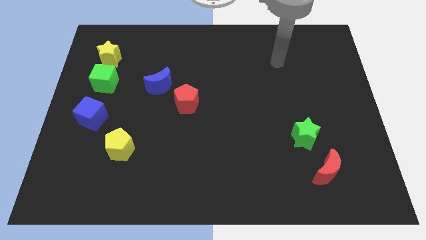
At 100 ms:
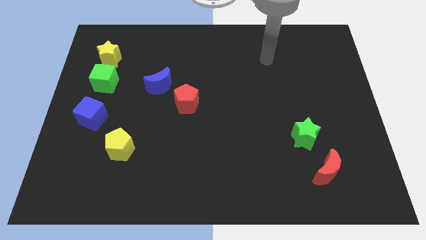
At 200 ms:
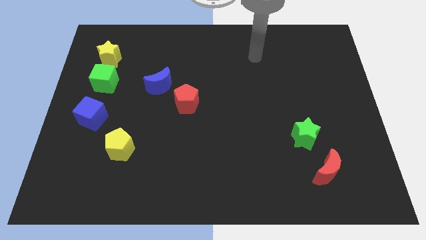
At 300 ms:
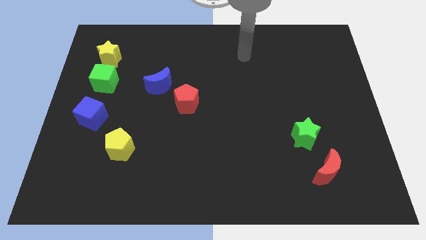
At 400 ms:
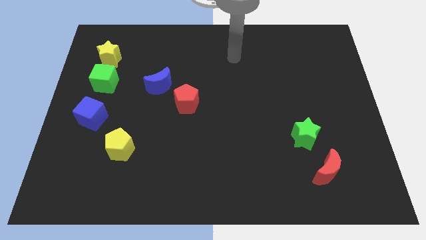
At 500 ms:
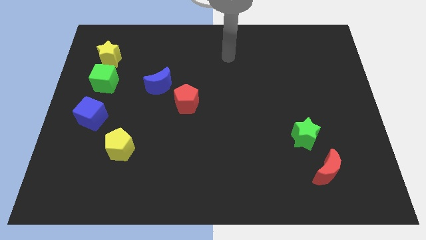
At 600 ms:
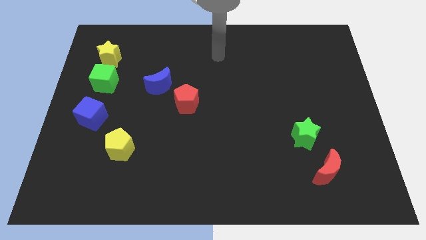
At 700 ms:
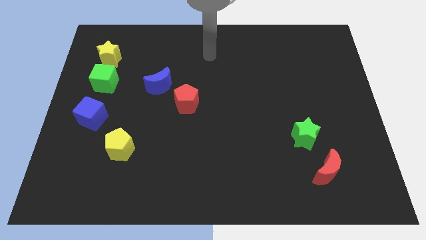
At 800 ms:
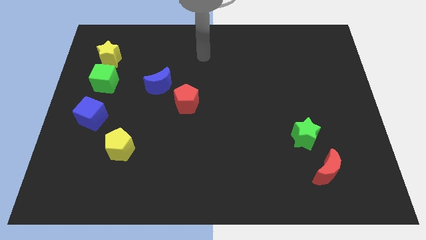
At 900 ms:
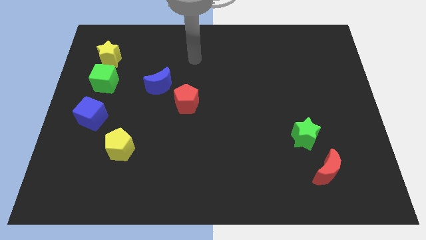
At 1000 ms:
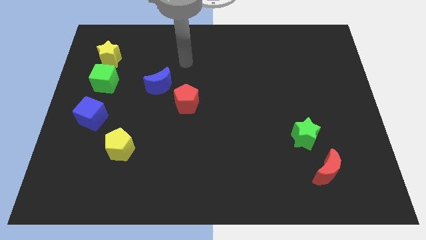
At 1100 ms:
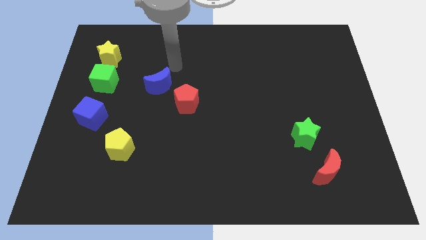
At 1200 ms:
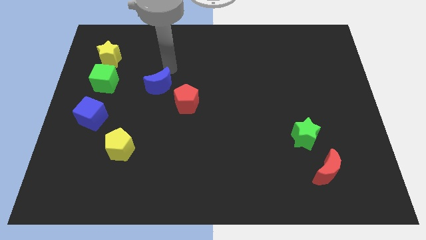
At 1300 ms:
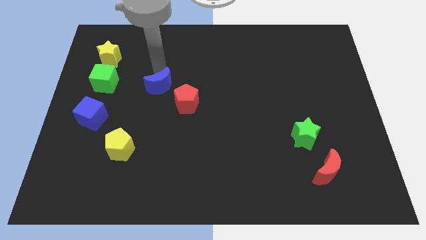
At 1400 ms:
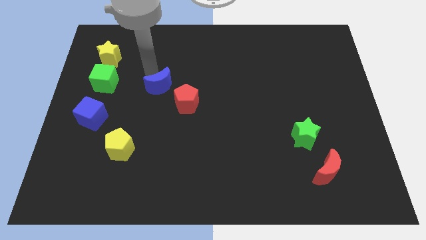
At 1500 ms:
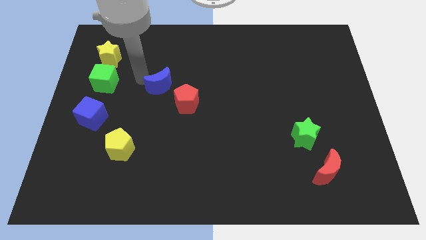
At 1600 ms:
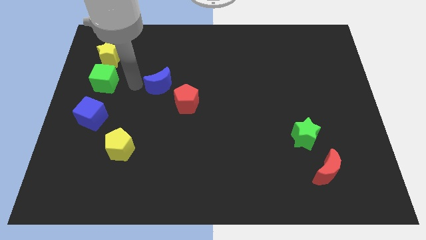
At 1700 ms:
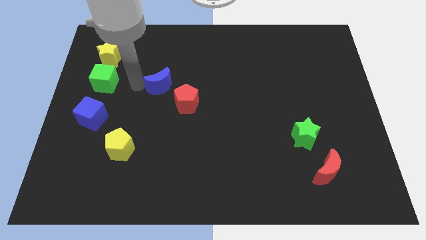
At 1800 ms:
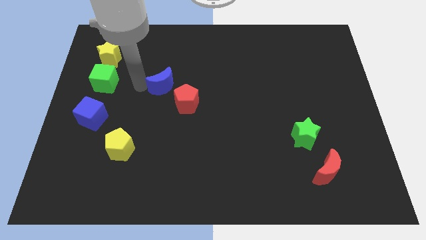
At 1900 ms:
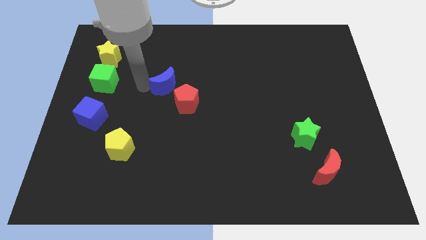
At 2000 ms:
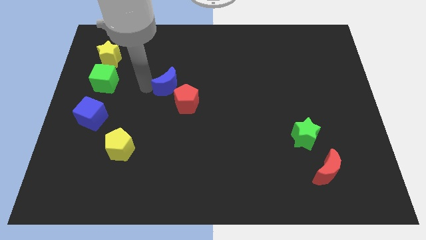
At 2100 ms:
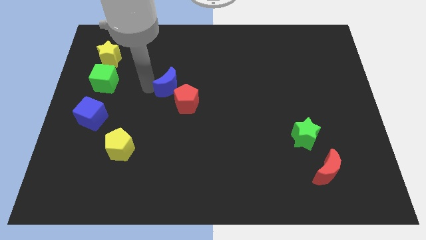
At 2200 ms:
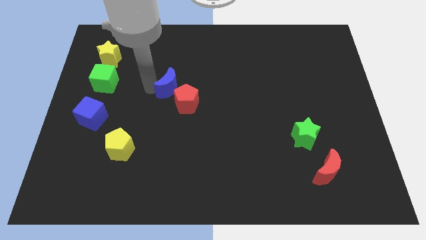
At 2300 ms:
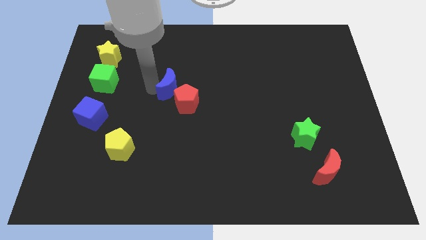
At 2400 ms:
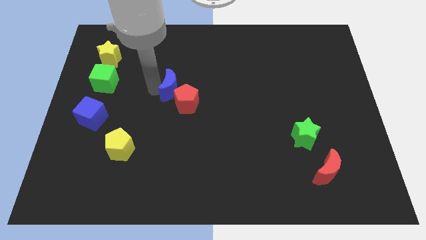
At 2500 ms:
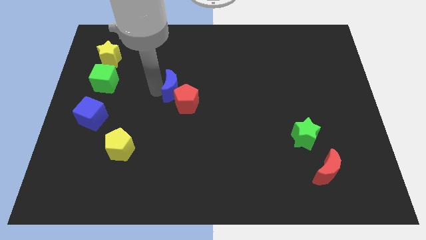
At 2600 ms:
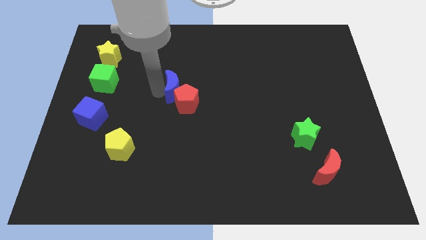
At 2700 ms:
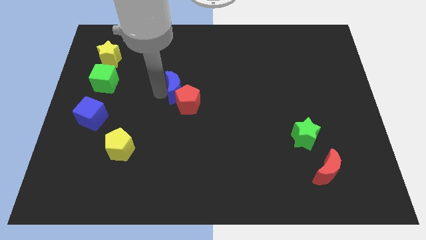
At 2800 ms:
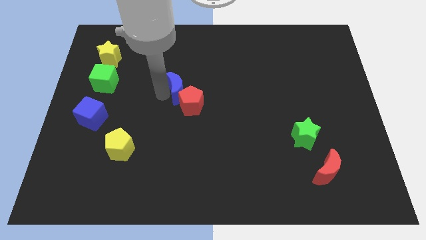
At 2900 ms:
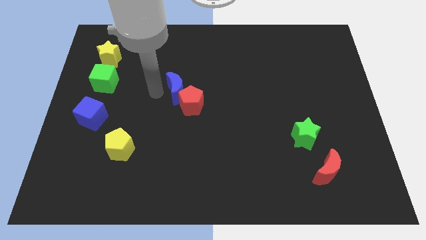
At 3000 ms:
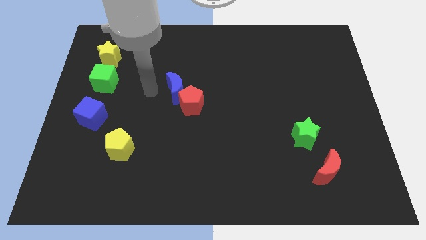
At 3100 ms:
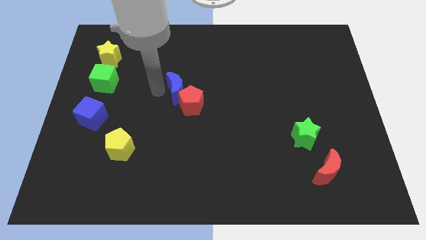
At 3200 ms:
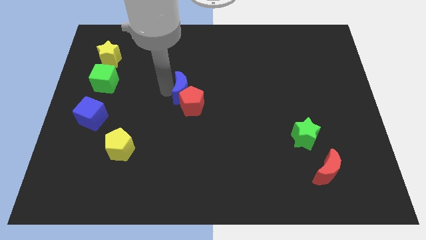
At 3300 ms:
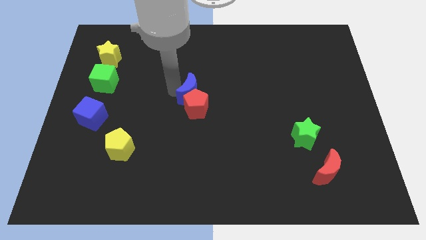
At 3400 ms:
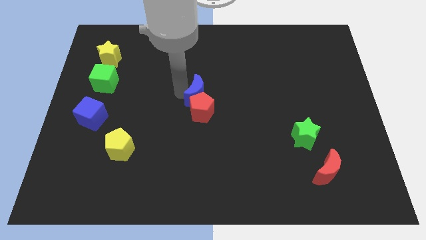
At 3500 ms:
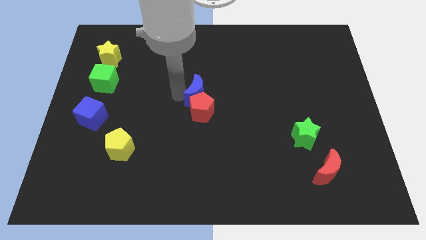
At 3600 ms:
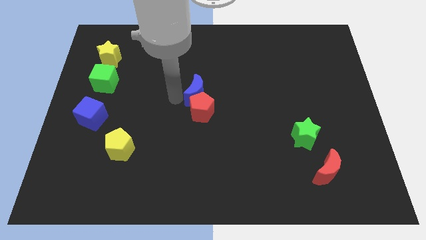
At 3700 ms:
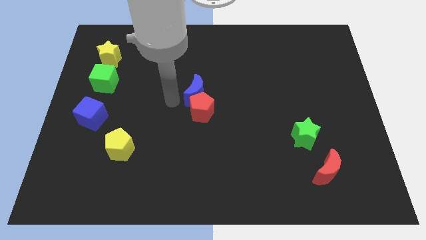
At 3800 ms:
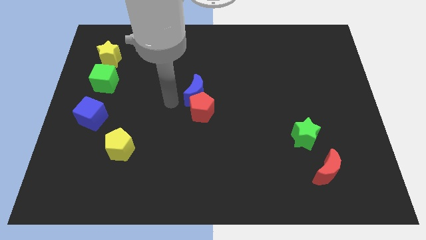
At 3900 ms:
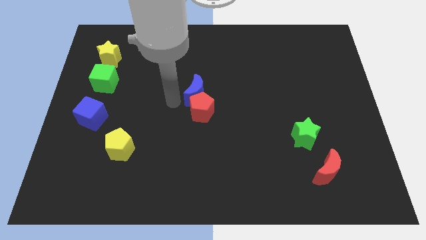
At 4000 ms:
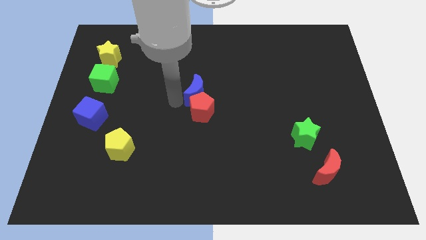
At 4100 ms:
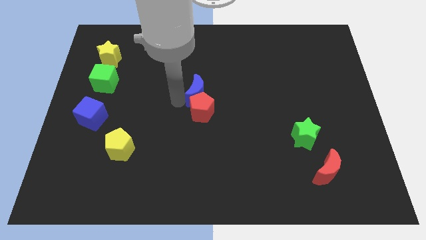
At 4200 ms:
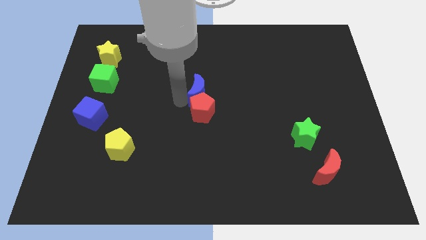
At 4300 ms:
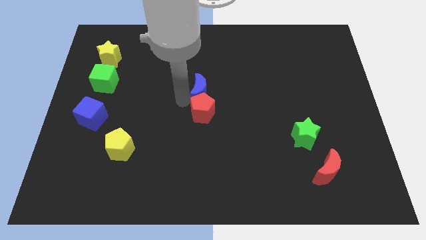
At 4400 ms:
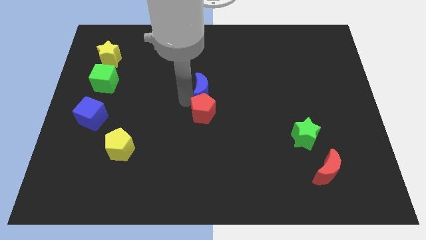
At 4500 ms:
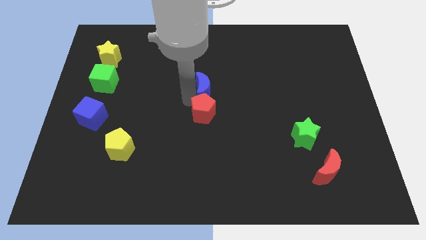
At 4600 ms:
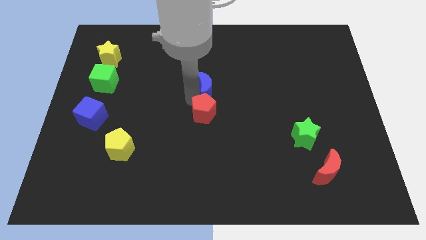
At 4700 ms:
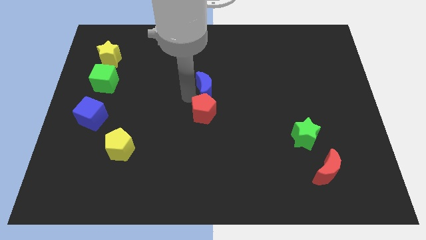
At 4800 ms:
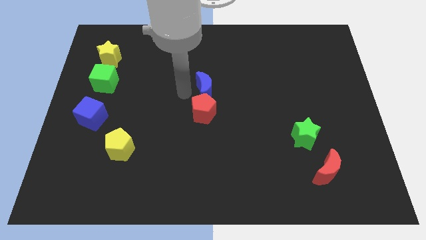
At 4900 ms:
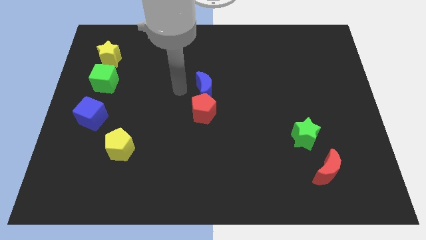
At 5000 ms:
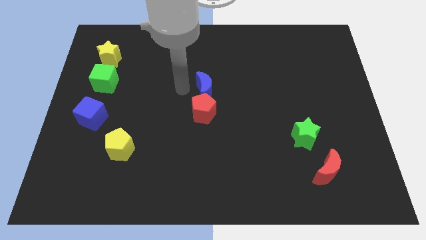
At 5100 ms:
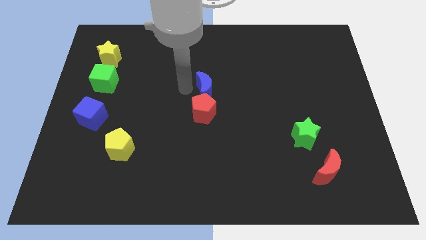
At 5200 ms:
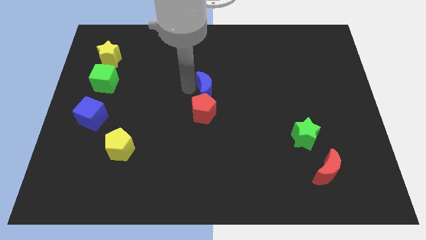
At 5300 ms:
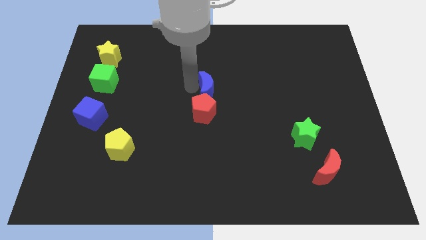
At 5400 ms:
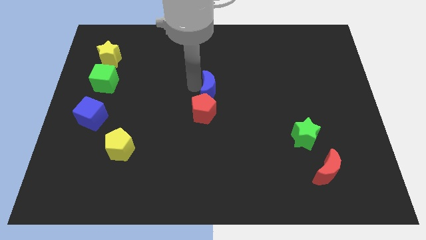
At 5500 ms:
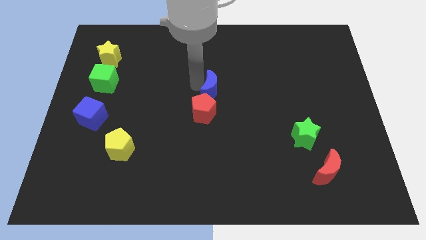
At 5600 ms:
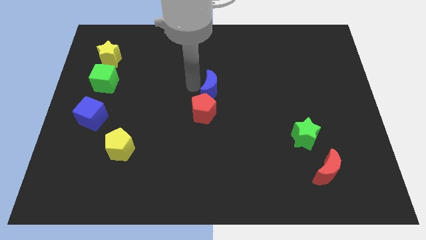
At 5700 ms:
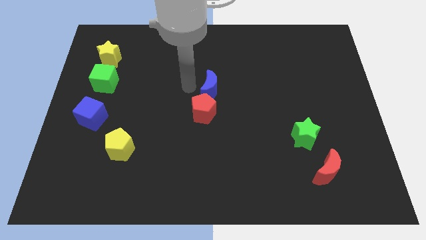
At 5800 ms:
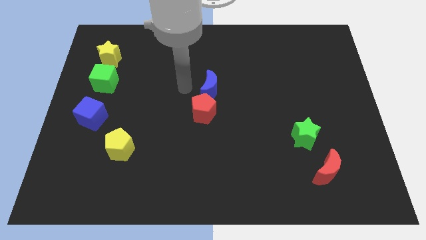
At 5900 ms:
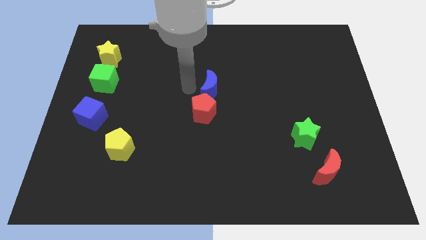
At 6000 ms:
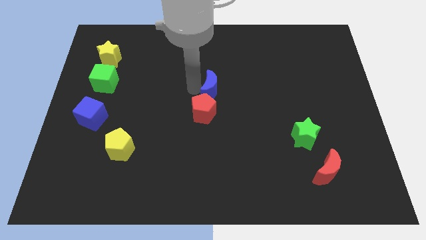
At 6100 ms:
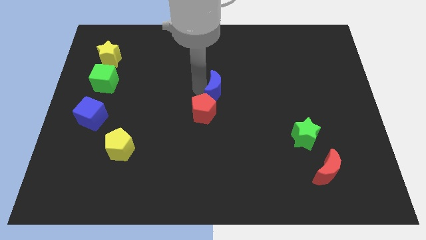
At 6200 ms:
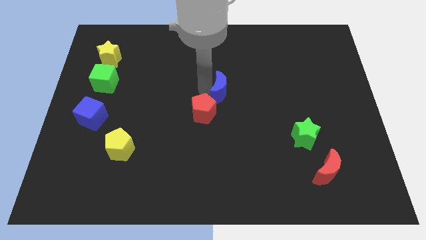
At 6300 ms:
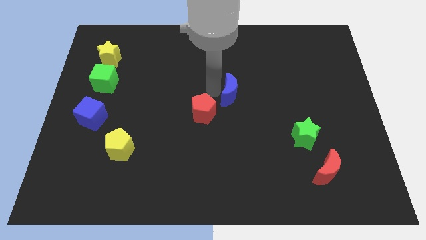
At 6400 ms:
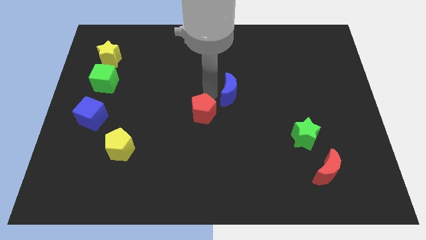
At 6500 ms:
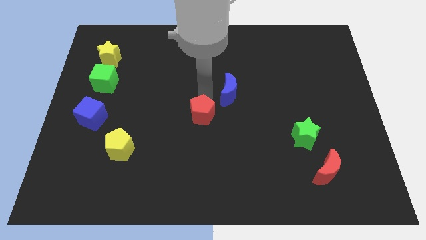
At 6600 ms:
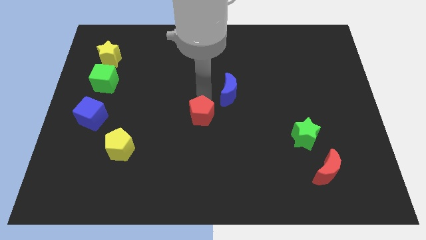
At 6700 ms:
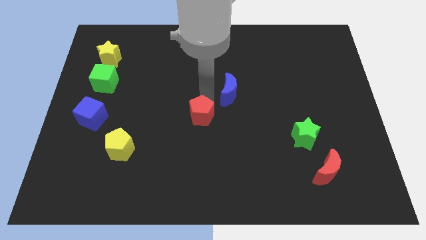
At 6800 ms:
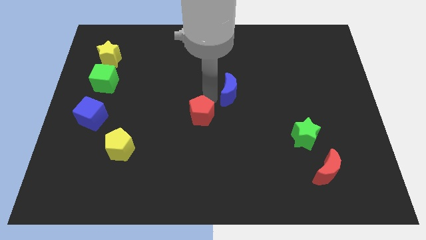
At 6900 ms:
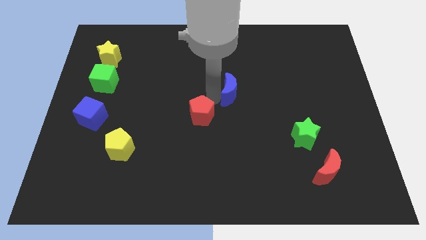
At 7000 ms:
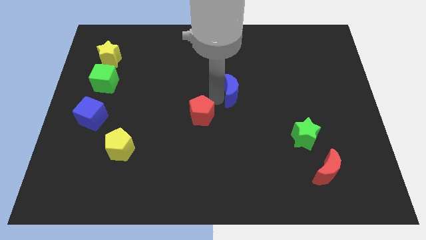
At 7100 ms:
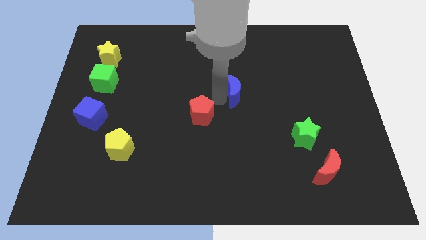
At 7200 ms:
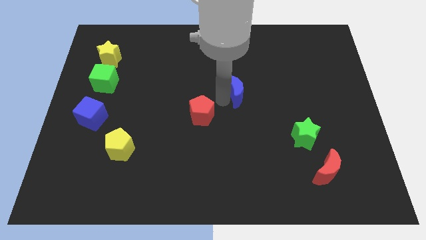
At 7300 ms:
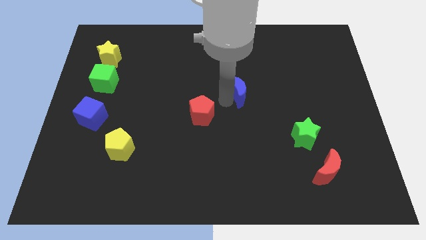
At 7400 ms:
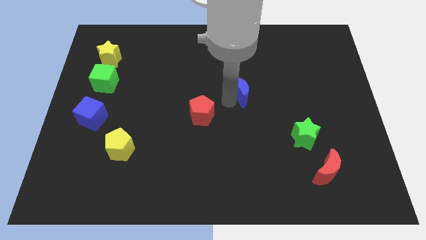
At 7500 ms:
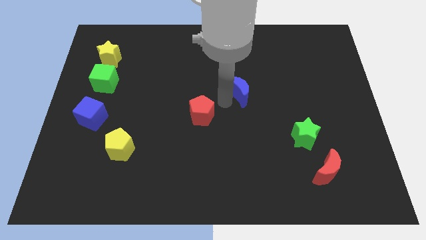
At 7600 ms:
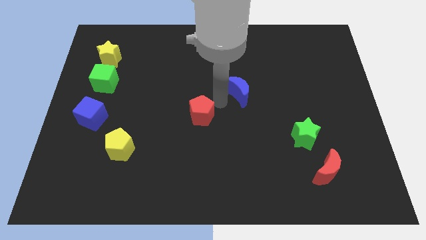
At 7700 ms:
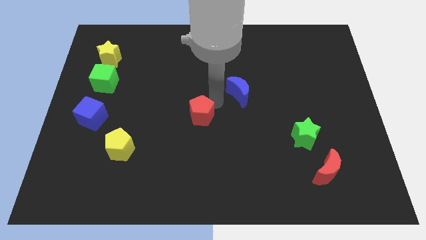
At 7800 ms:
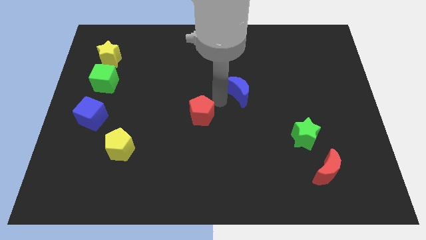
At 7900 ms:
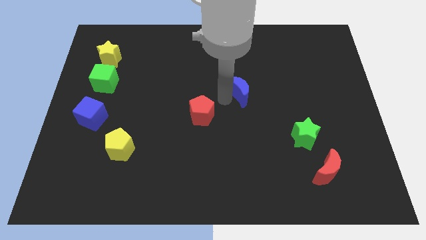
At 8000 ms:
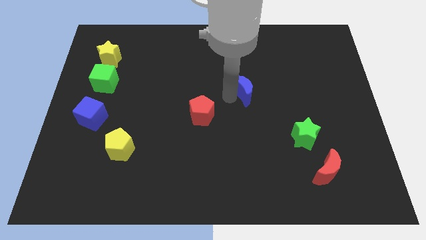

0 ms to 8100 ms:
push the blue moon to the right
